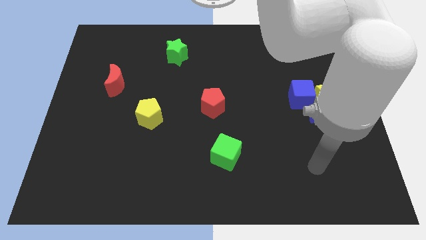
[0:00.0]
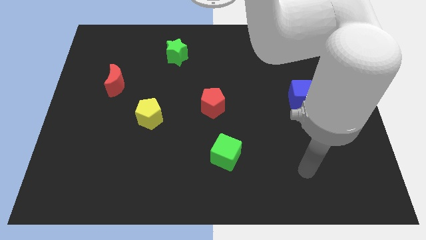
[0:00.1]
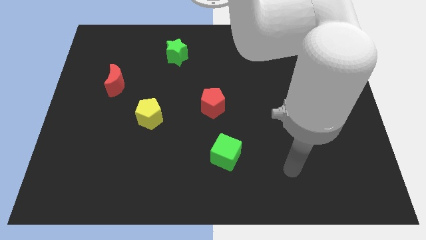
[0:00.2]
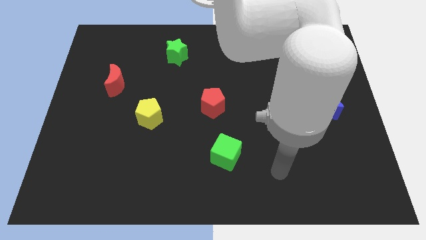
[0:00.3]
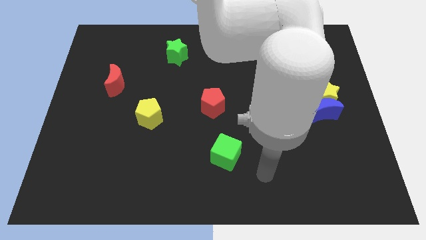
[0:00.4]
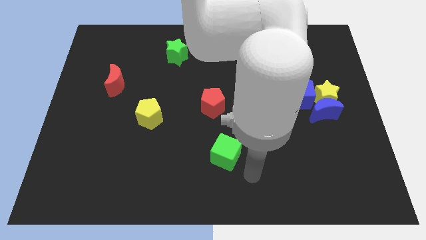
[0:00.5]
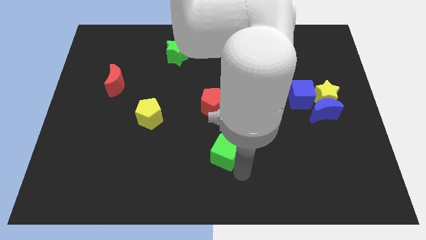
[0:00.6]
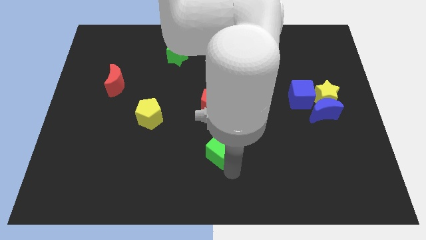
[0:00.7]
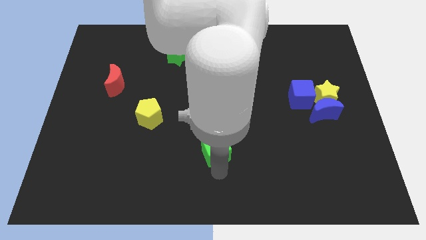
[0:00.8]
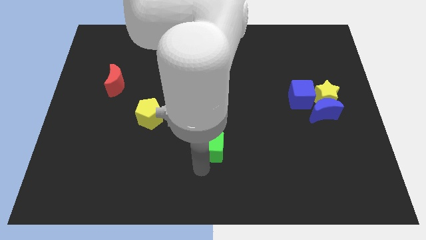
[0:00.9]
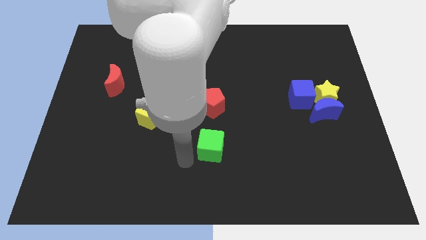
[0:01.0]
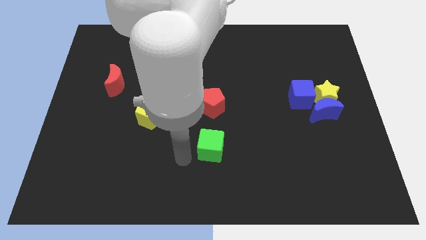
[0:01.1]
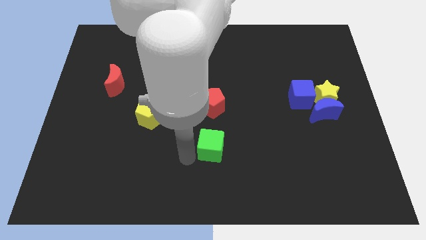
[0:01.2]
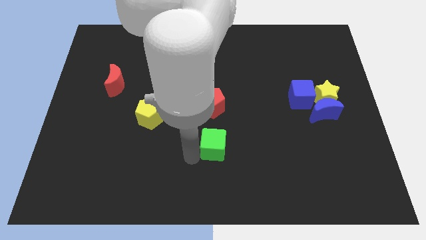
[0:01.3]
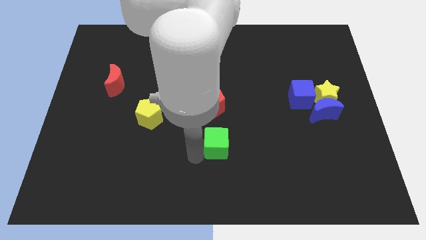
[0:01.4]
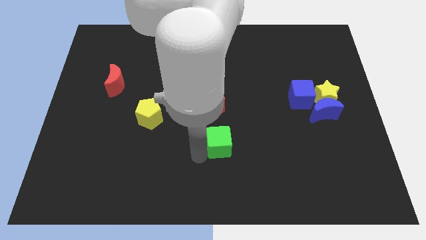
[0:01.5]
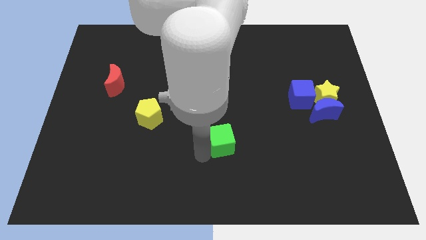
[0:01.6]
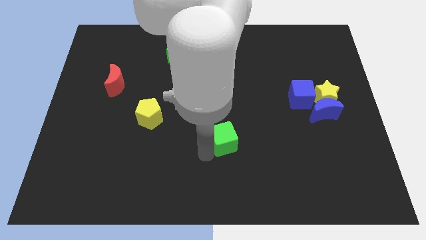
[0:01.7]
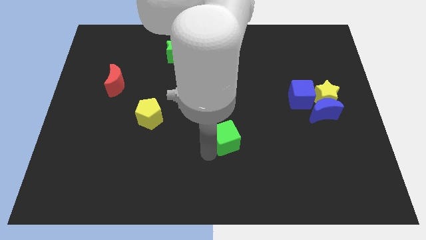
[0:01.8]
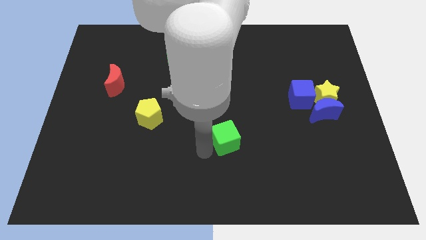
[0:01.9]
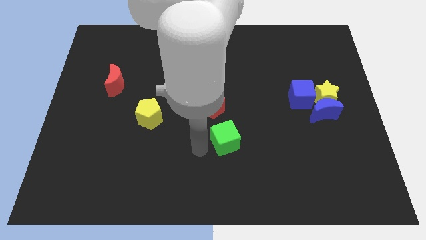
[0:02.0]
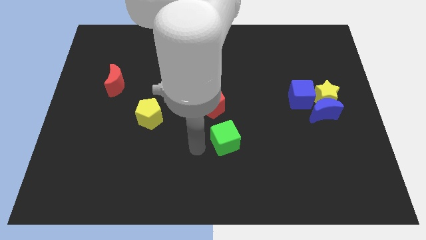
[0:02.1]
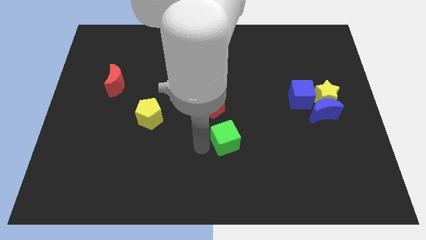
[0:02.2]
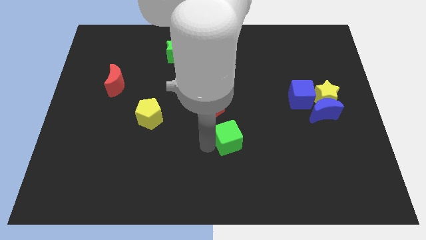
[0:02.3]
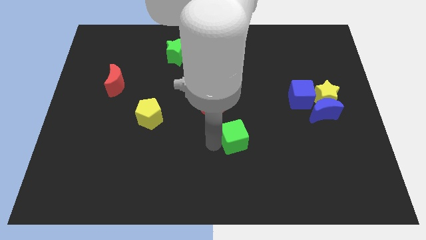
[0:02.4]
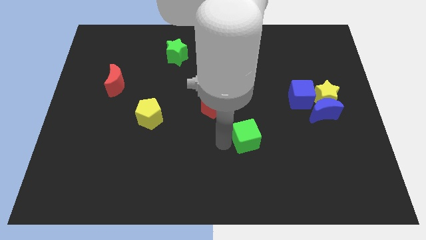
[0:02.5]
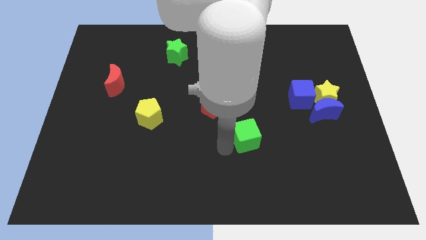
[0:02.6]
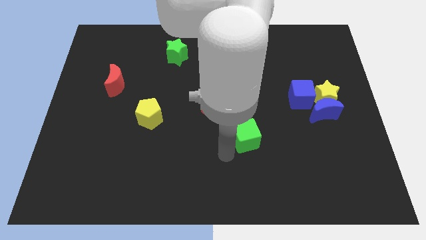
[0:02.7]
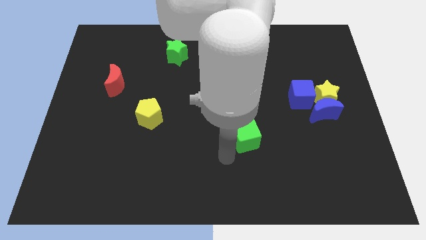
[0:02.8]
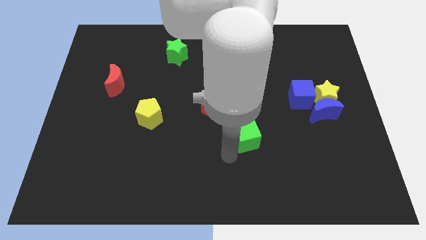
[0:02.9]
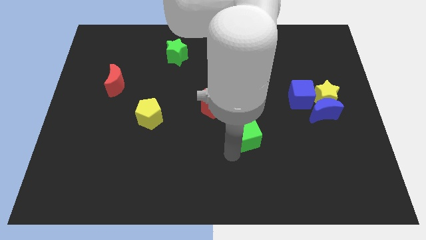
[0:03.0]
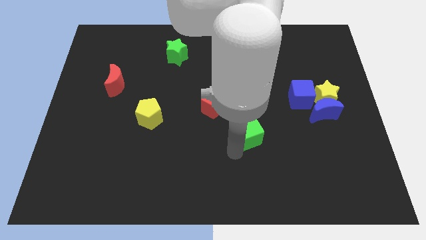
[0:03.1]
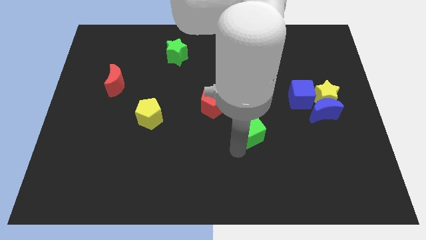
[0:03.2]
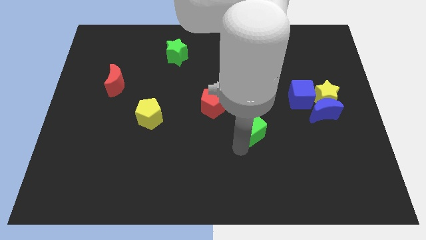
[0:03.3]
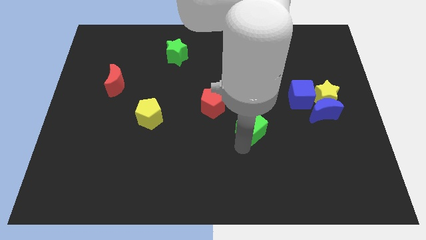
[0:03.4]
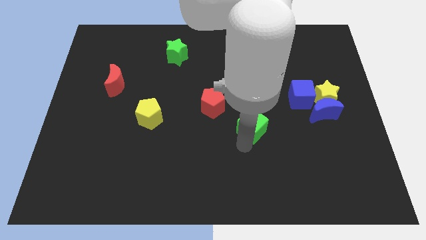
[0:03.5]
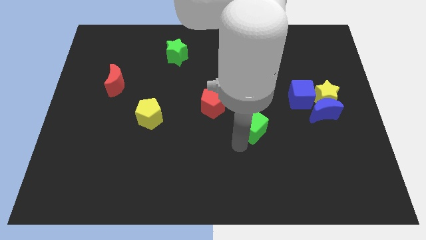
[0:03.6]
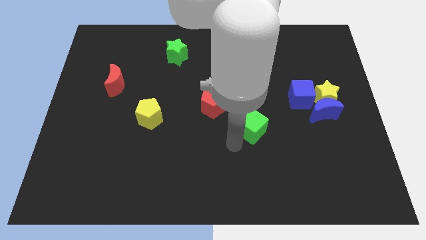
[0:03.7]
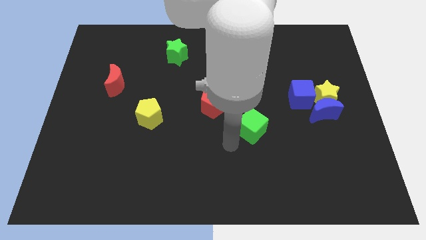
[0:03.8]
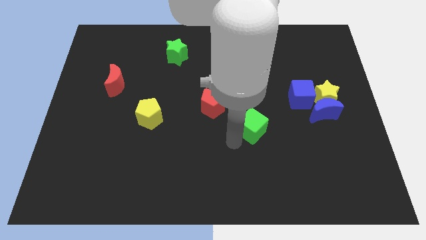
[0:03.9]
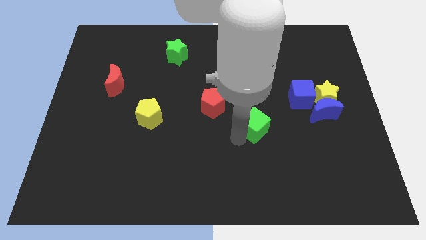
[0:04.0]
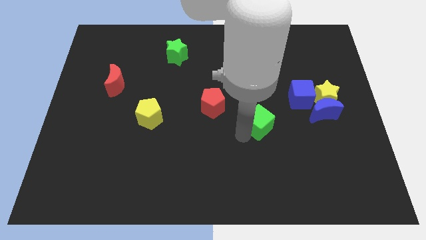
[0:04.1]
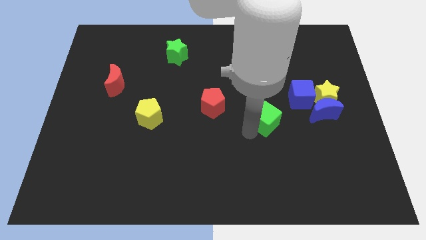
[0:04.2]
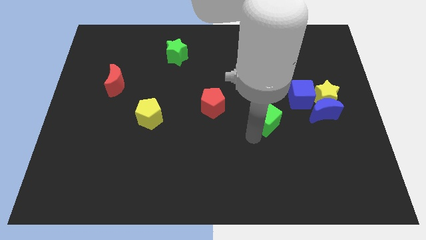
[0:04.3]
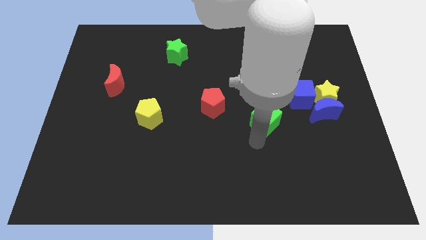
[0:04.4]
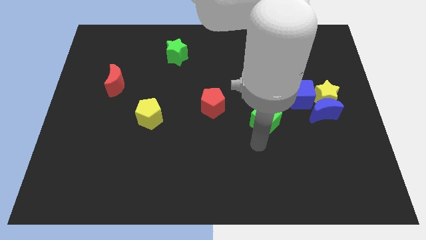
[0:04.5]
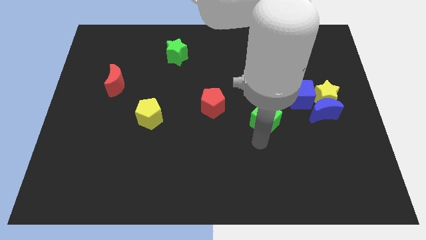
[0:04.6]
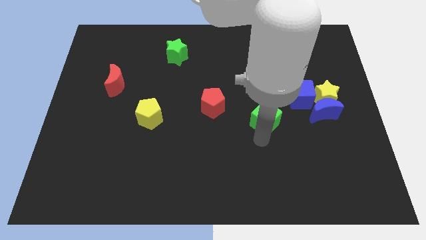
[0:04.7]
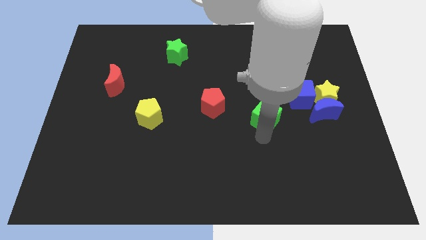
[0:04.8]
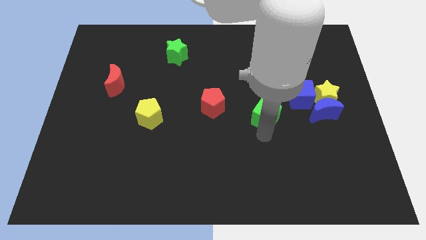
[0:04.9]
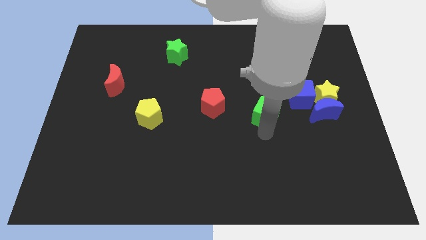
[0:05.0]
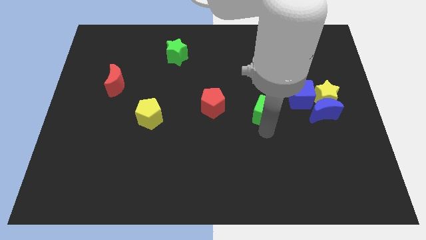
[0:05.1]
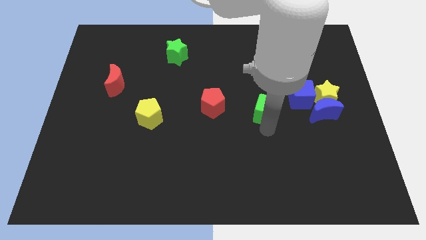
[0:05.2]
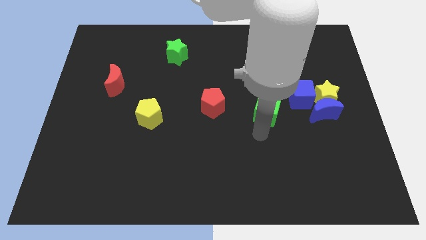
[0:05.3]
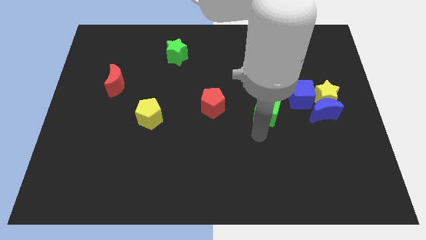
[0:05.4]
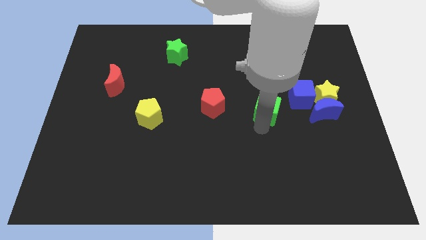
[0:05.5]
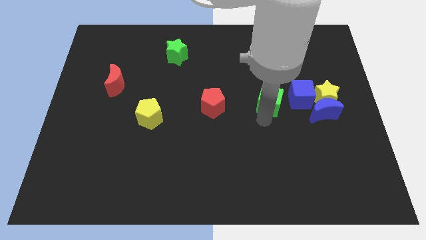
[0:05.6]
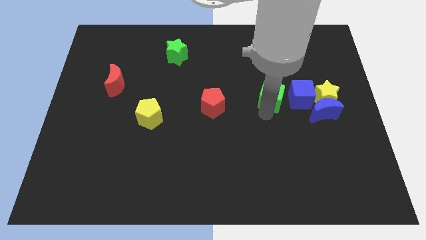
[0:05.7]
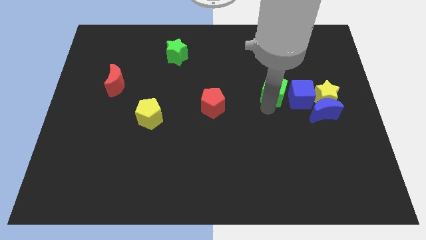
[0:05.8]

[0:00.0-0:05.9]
put the green cube diagonally up and to the left of the blue cube

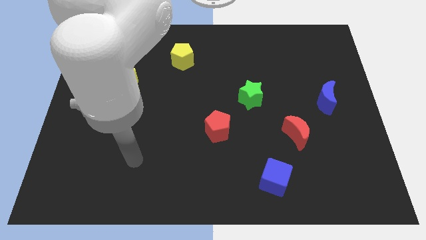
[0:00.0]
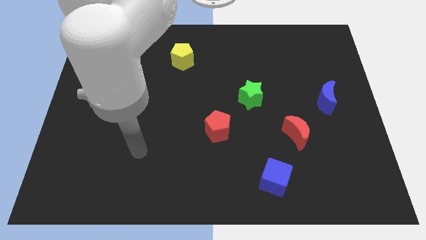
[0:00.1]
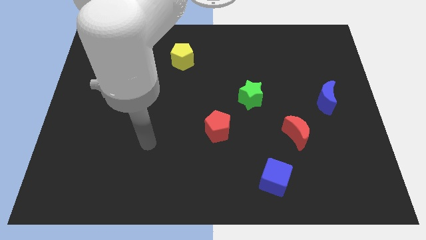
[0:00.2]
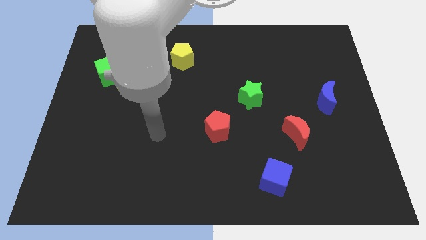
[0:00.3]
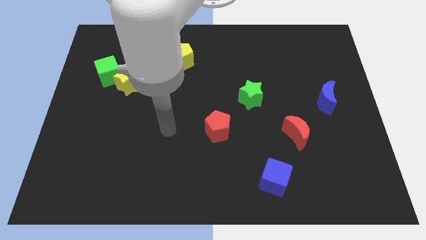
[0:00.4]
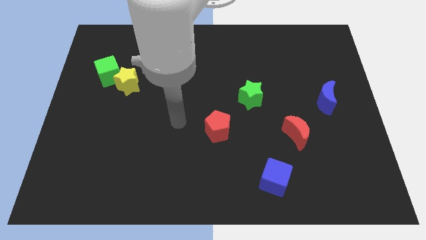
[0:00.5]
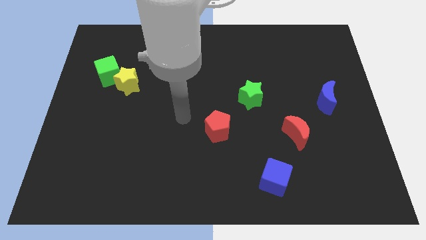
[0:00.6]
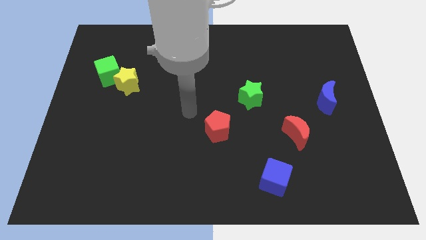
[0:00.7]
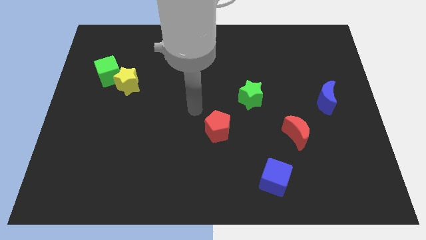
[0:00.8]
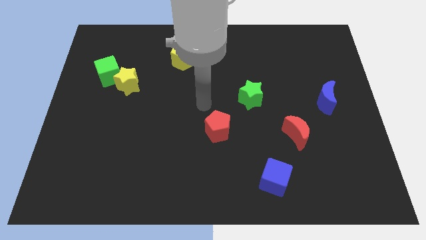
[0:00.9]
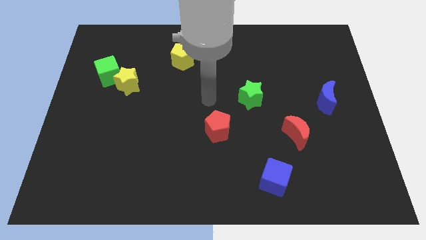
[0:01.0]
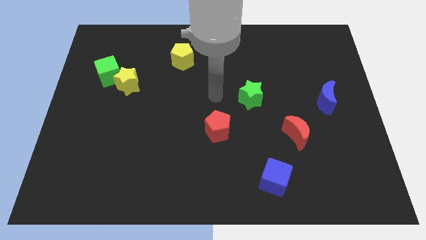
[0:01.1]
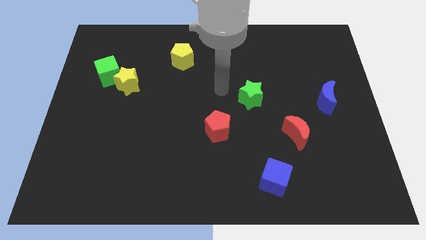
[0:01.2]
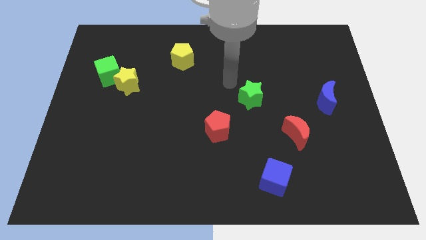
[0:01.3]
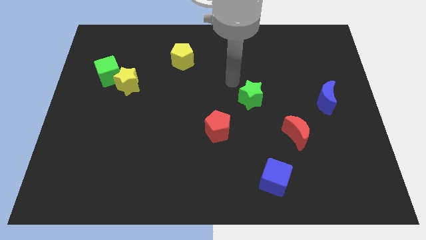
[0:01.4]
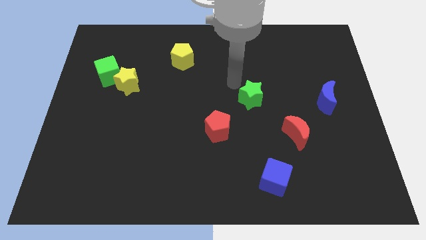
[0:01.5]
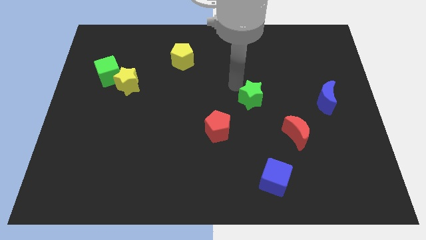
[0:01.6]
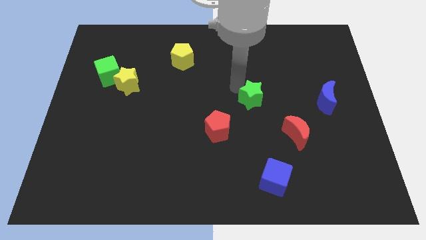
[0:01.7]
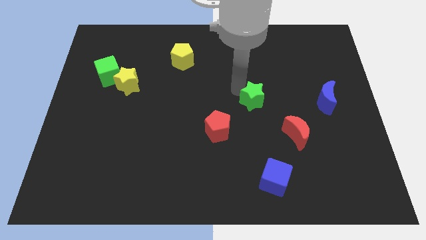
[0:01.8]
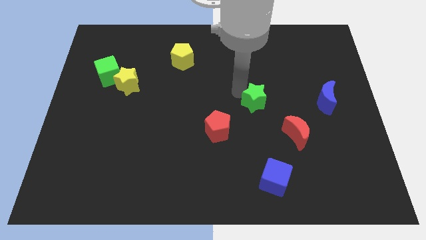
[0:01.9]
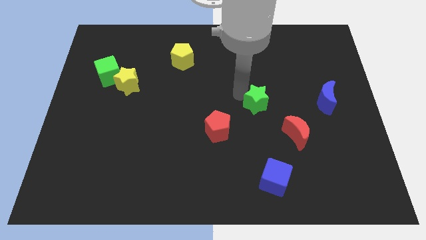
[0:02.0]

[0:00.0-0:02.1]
slide the green star to the top left side of the red moon
